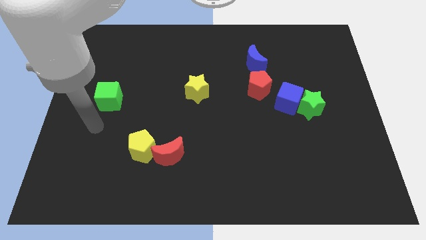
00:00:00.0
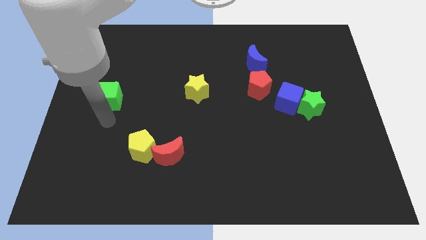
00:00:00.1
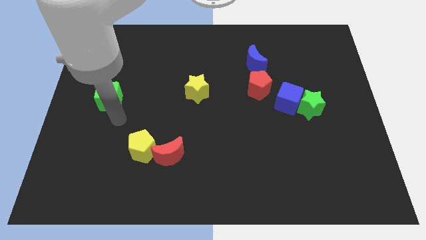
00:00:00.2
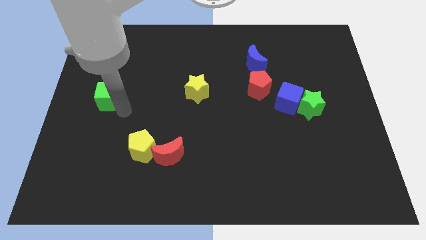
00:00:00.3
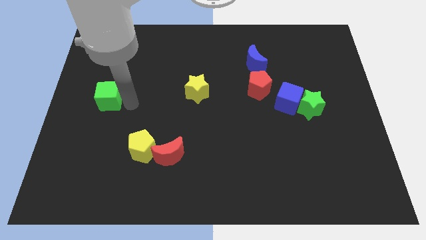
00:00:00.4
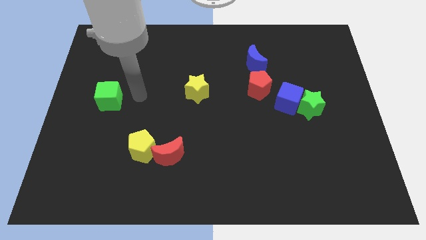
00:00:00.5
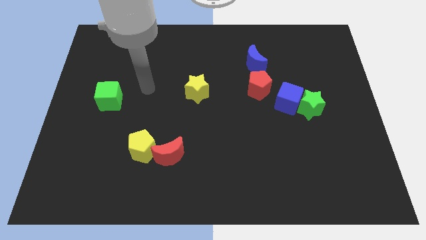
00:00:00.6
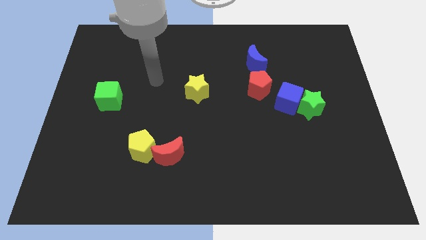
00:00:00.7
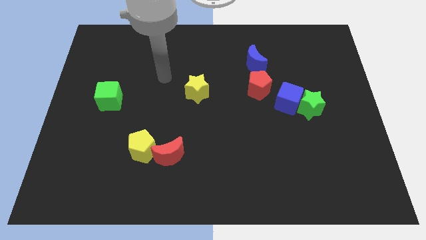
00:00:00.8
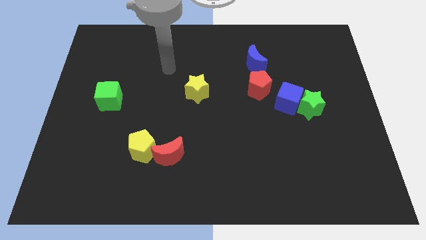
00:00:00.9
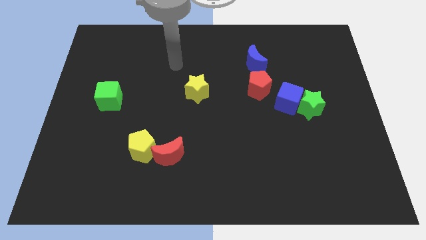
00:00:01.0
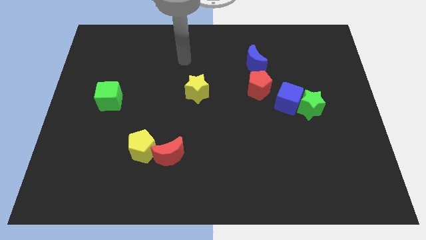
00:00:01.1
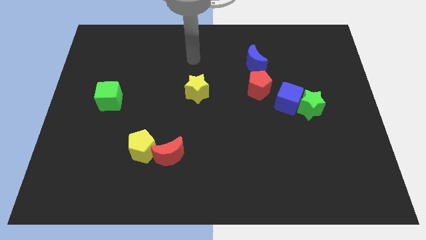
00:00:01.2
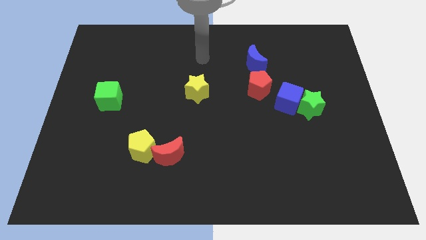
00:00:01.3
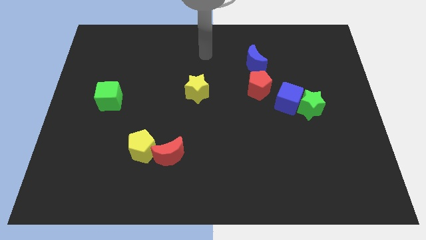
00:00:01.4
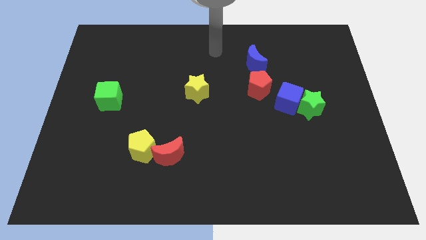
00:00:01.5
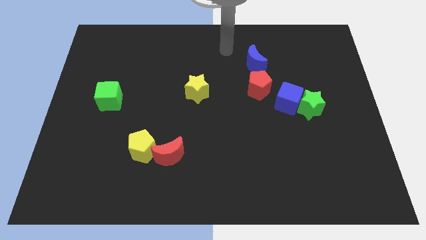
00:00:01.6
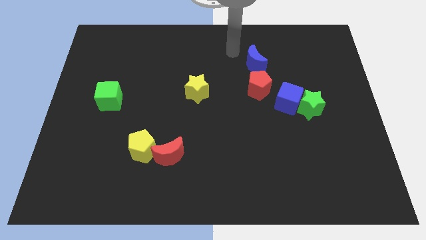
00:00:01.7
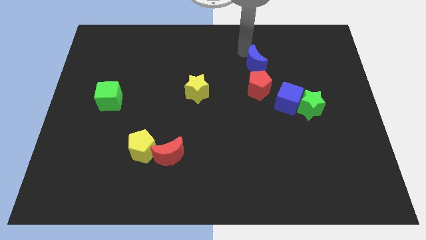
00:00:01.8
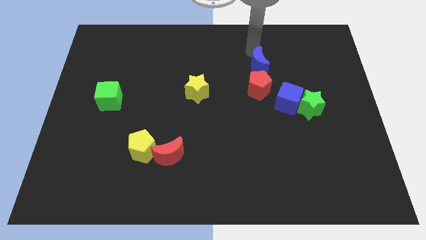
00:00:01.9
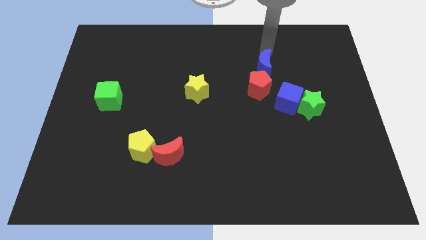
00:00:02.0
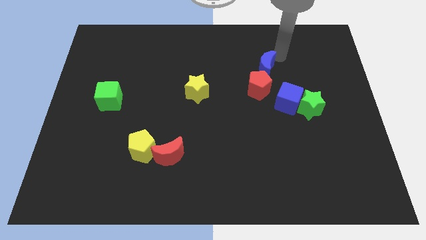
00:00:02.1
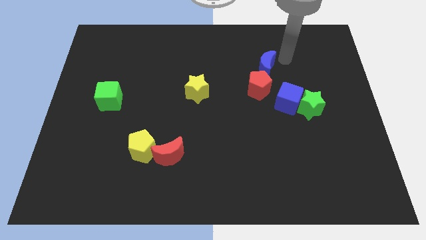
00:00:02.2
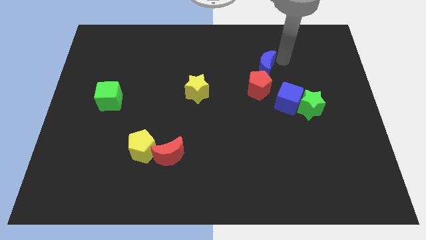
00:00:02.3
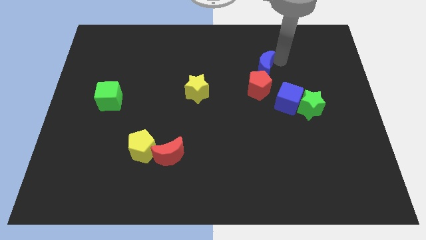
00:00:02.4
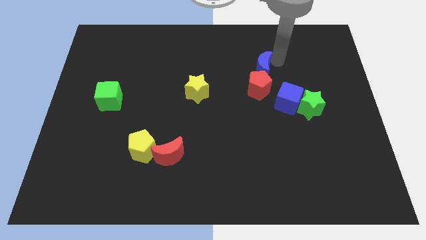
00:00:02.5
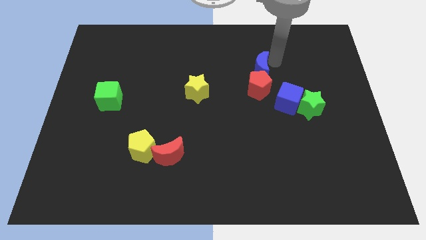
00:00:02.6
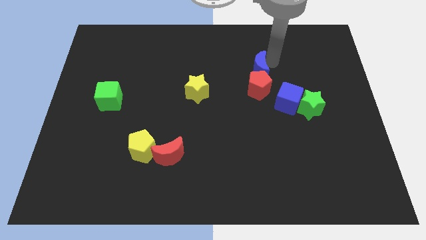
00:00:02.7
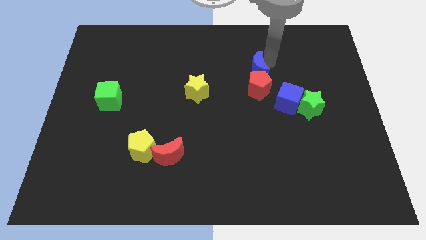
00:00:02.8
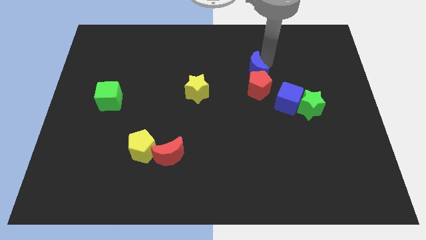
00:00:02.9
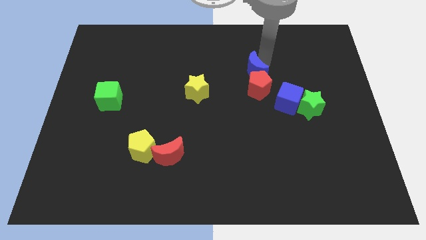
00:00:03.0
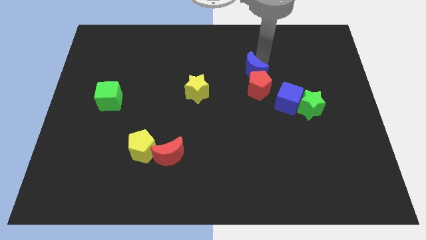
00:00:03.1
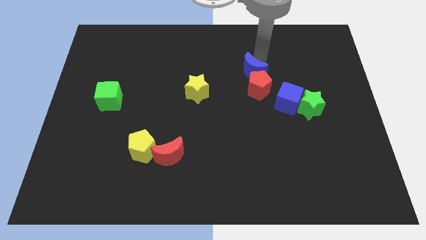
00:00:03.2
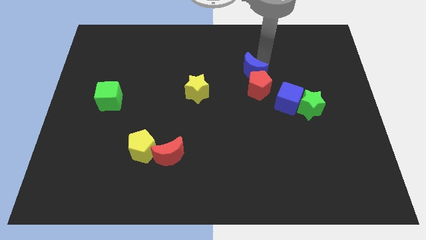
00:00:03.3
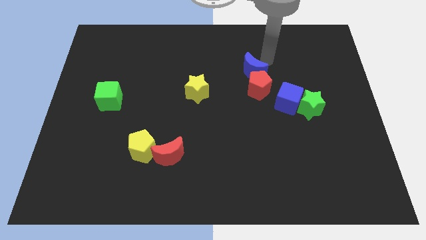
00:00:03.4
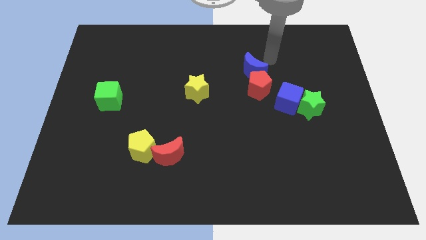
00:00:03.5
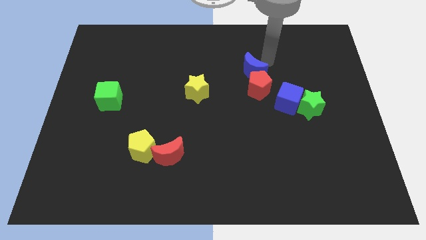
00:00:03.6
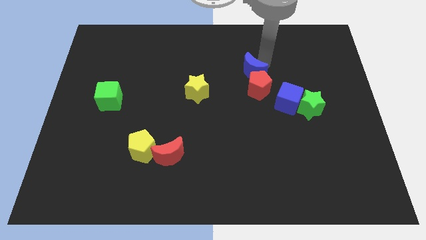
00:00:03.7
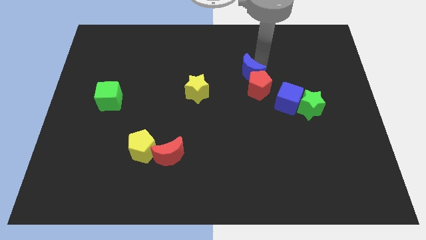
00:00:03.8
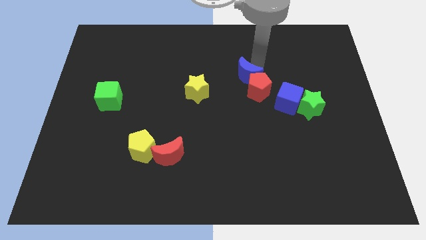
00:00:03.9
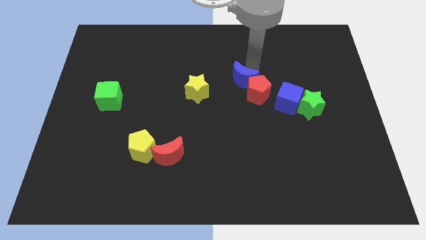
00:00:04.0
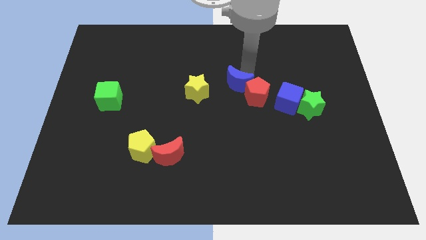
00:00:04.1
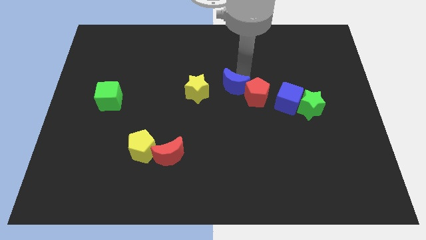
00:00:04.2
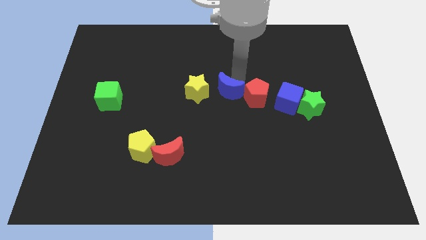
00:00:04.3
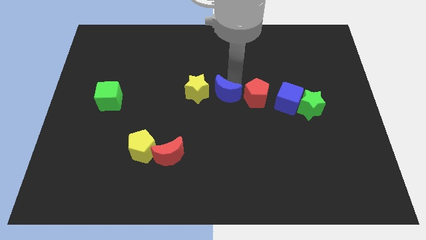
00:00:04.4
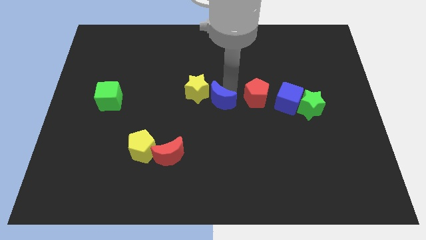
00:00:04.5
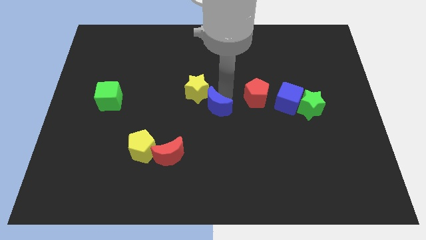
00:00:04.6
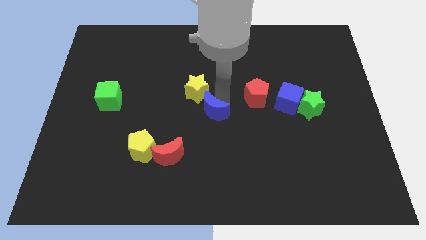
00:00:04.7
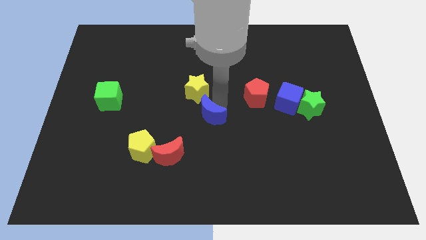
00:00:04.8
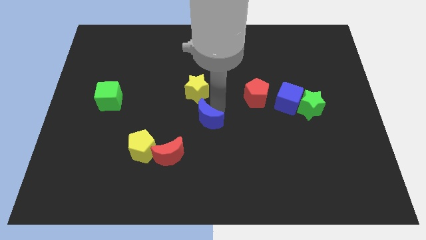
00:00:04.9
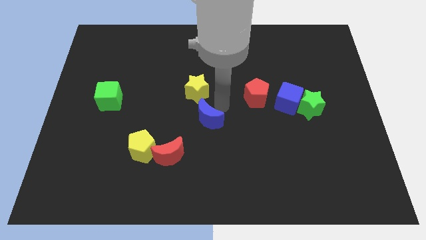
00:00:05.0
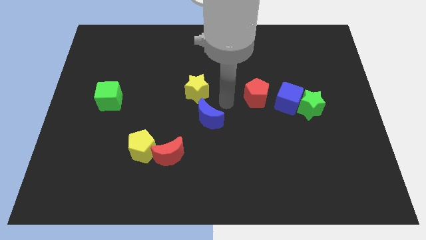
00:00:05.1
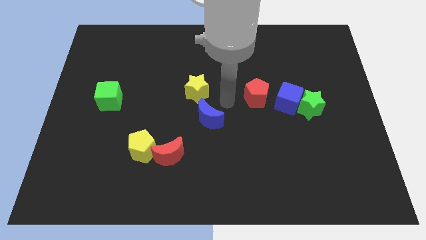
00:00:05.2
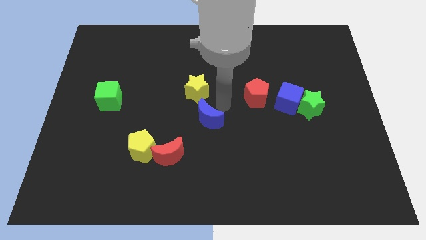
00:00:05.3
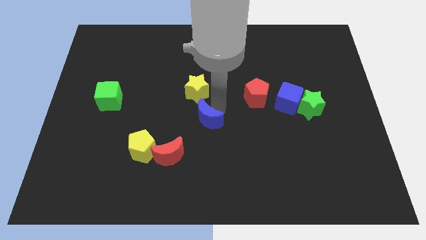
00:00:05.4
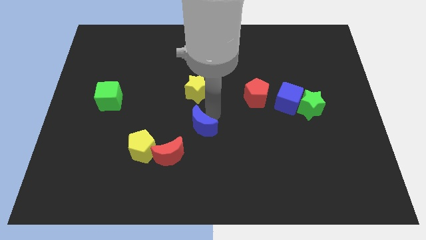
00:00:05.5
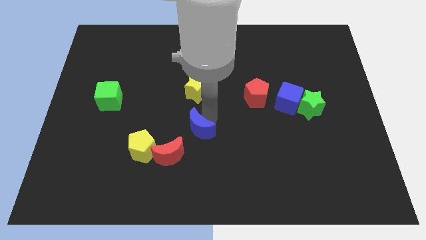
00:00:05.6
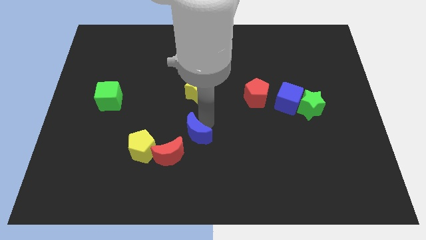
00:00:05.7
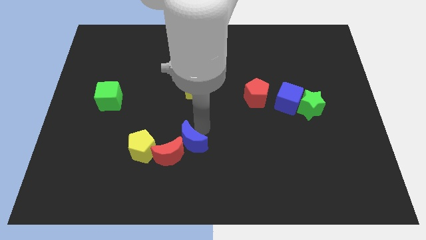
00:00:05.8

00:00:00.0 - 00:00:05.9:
put the blue moon to the red moon
